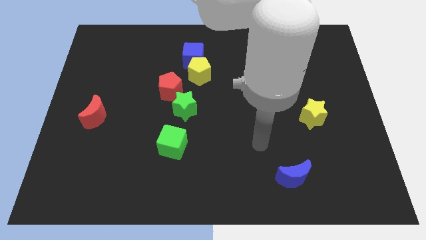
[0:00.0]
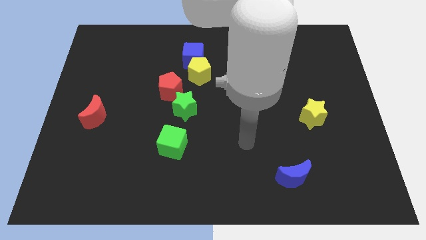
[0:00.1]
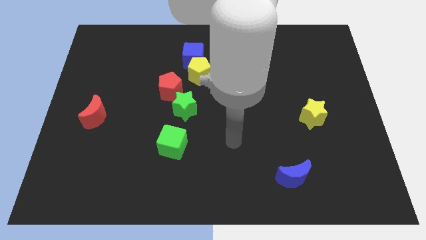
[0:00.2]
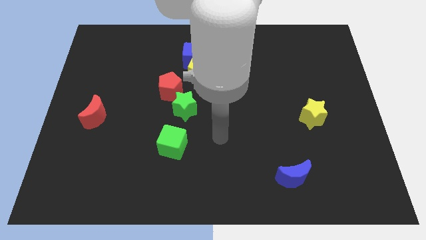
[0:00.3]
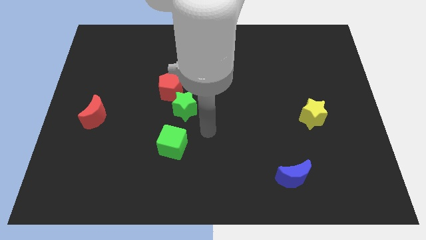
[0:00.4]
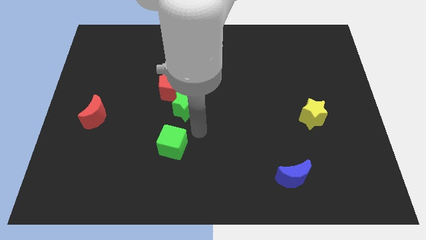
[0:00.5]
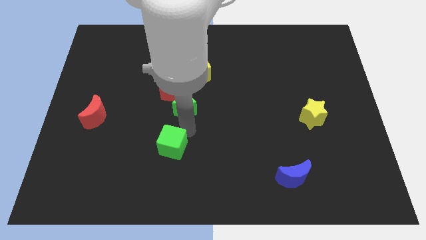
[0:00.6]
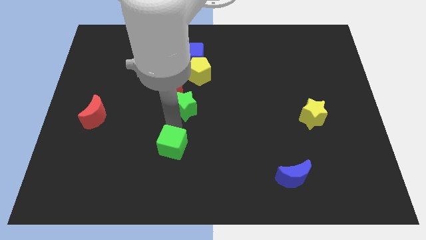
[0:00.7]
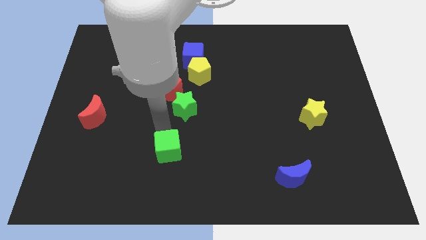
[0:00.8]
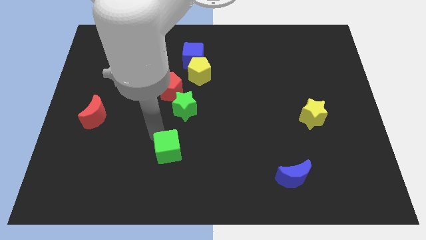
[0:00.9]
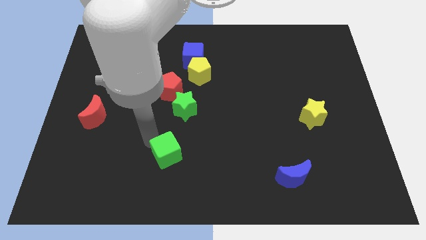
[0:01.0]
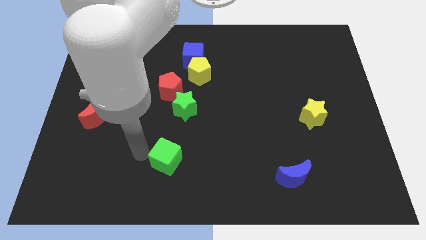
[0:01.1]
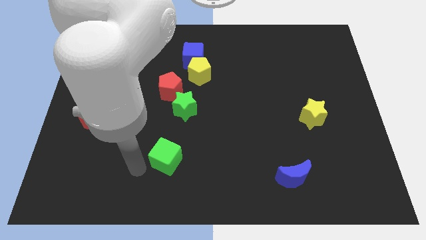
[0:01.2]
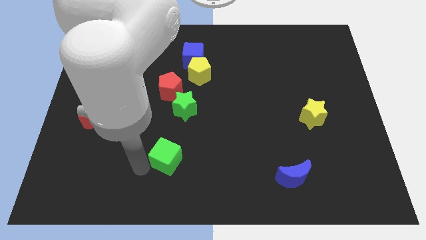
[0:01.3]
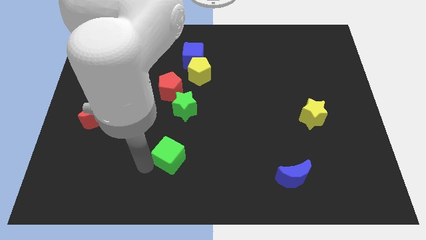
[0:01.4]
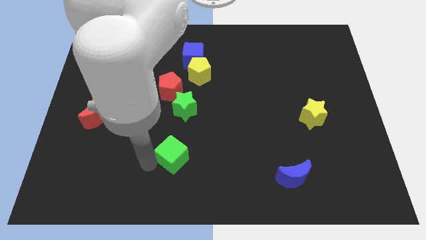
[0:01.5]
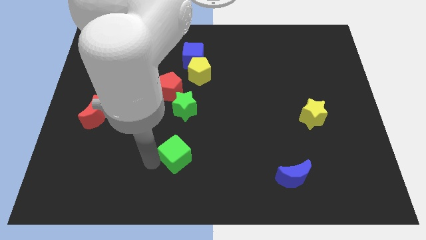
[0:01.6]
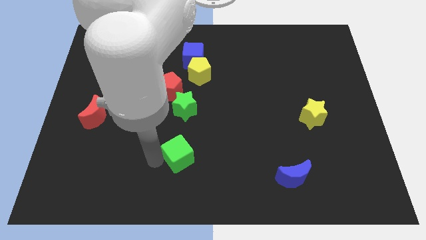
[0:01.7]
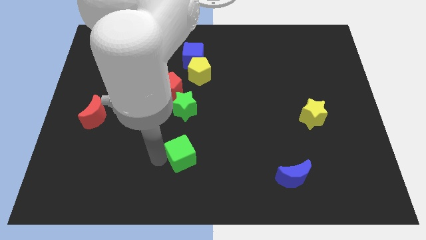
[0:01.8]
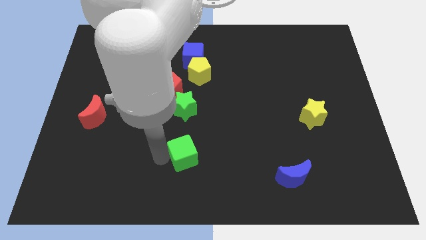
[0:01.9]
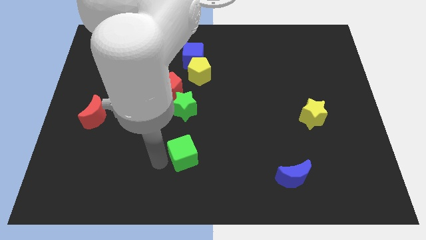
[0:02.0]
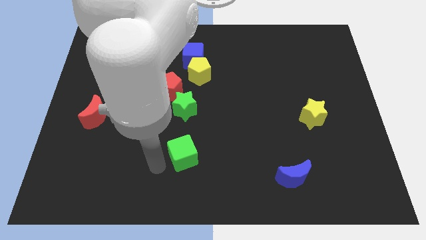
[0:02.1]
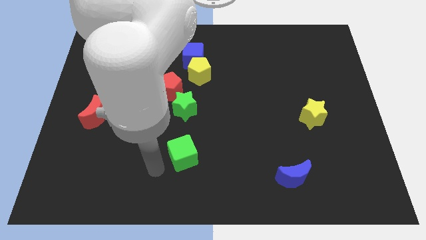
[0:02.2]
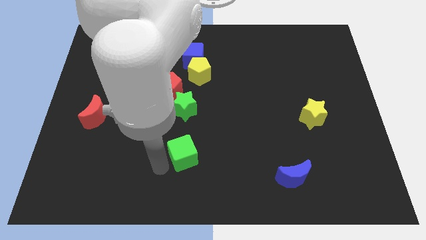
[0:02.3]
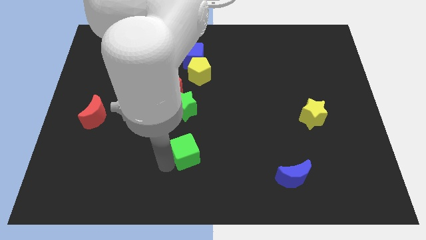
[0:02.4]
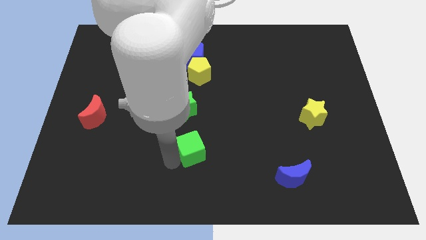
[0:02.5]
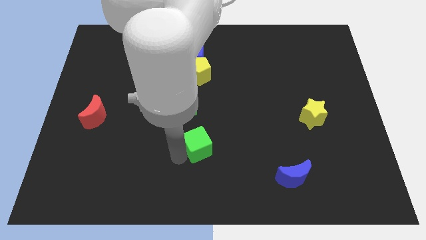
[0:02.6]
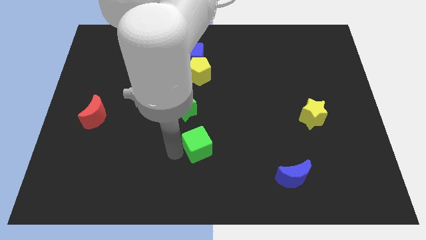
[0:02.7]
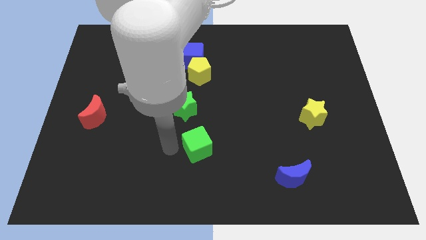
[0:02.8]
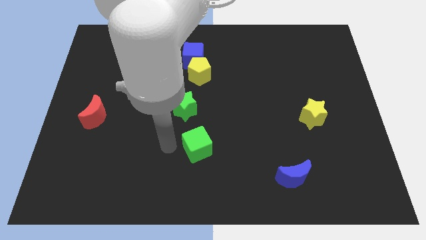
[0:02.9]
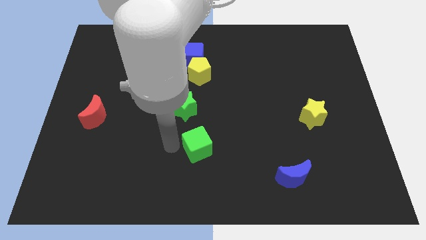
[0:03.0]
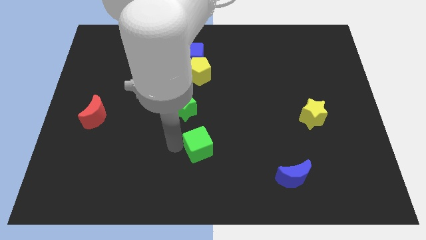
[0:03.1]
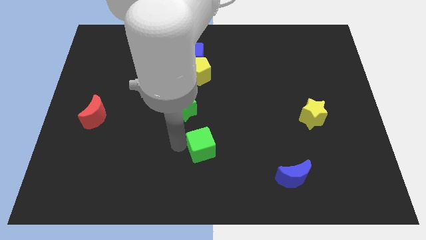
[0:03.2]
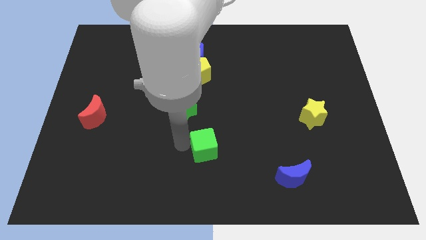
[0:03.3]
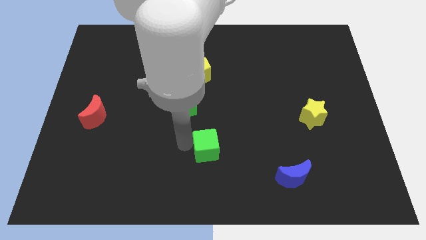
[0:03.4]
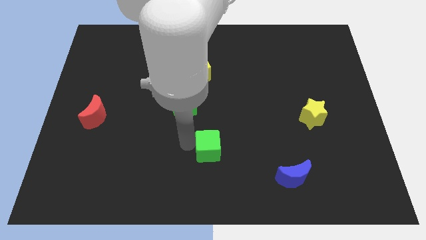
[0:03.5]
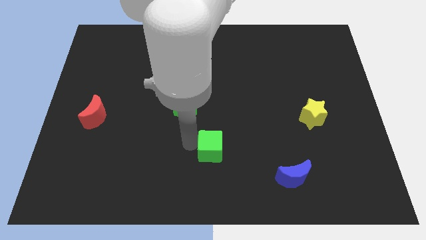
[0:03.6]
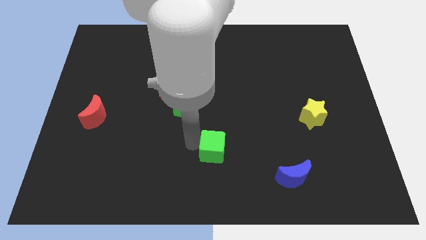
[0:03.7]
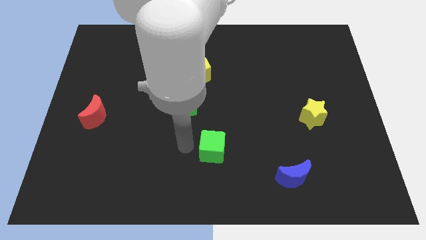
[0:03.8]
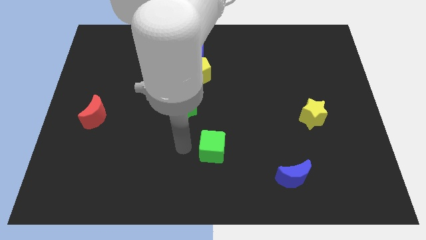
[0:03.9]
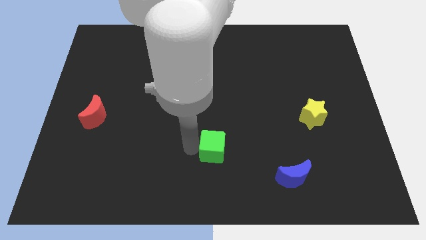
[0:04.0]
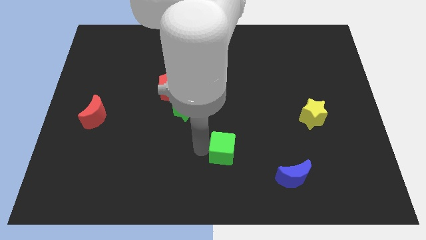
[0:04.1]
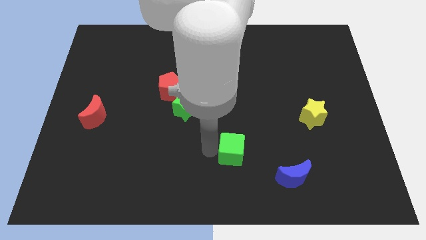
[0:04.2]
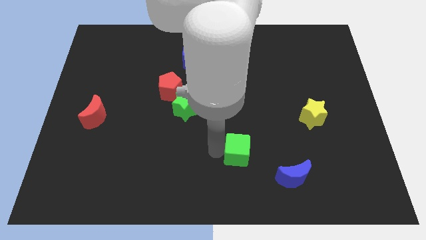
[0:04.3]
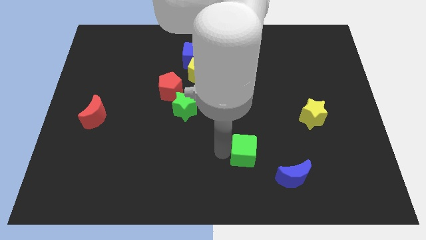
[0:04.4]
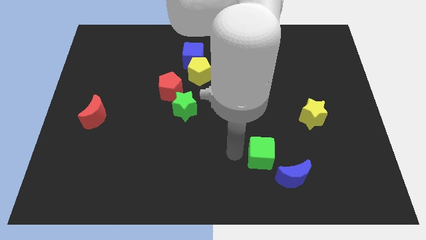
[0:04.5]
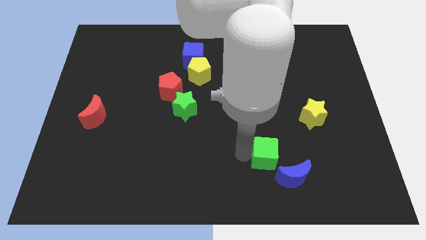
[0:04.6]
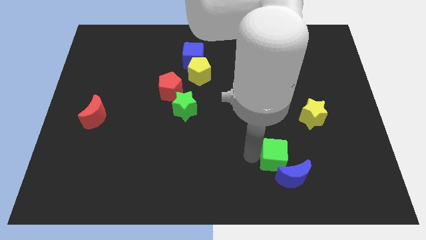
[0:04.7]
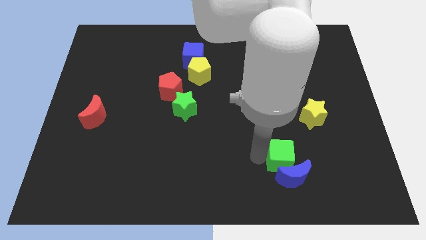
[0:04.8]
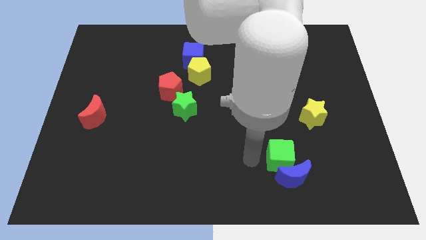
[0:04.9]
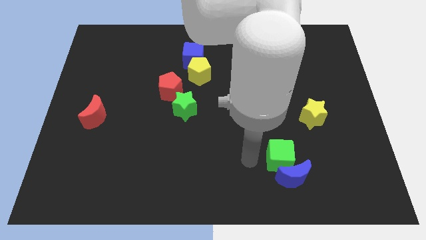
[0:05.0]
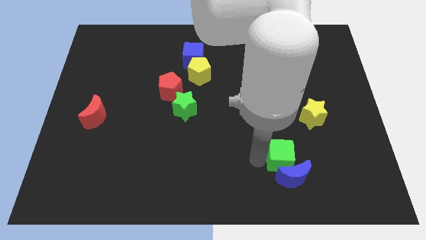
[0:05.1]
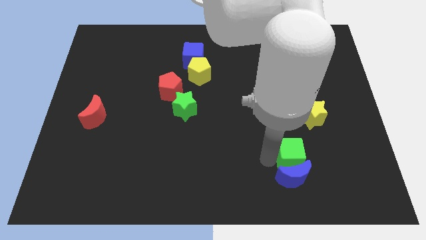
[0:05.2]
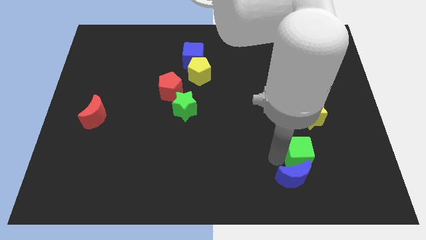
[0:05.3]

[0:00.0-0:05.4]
push the green cube to the bottom of the yellow star

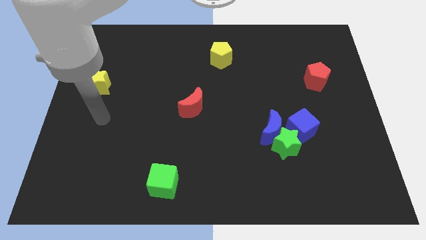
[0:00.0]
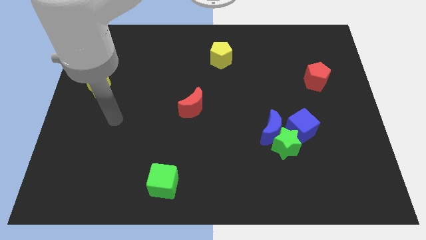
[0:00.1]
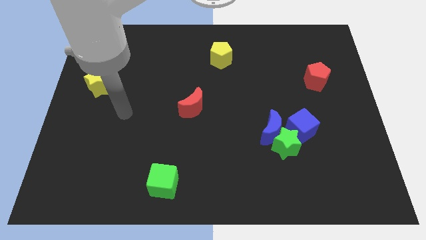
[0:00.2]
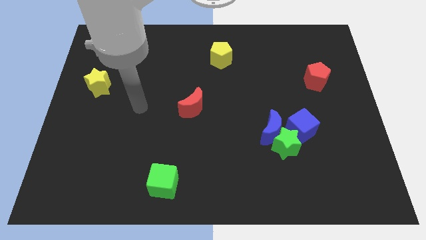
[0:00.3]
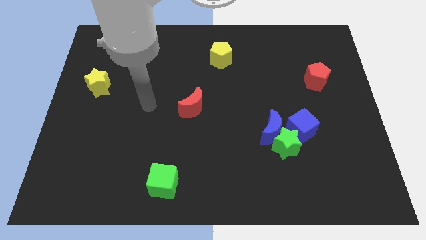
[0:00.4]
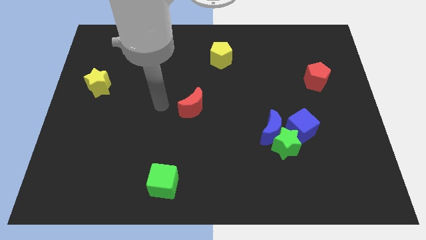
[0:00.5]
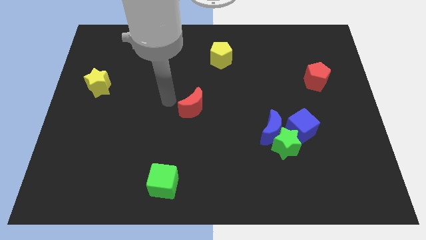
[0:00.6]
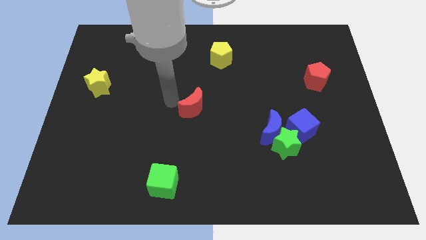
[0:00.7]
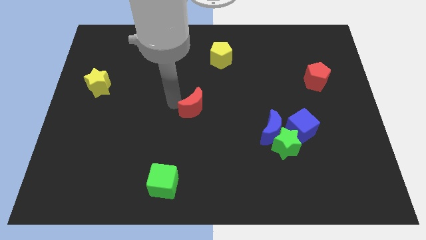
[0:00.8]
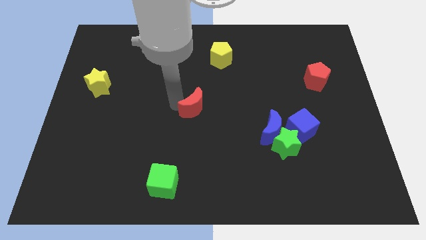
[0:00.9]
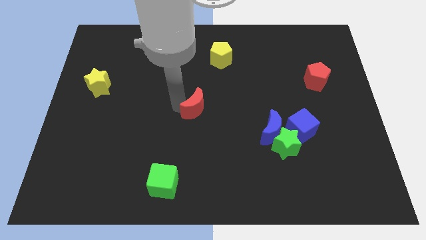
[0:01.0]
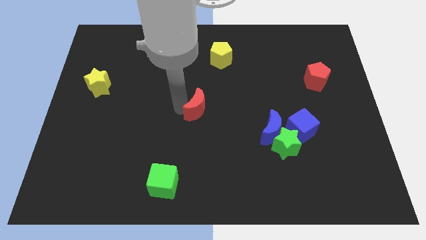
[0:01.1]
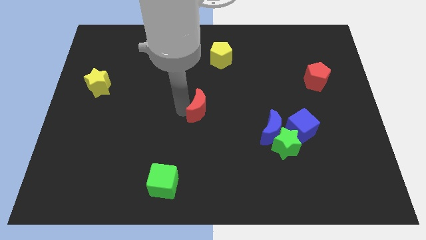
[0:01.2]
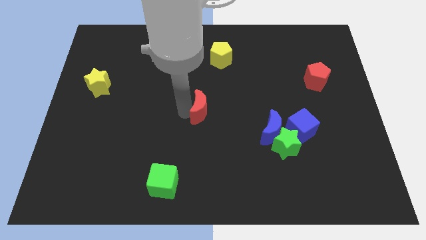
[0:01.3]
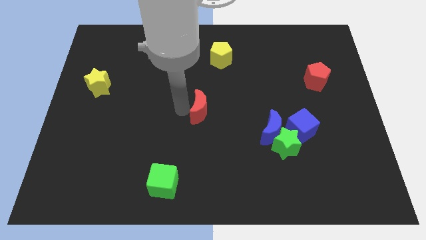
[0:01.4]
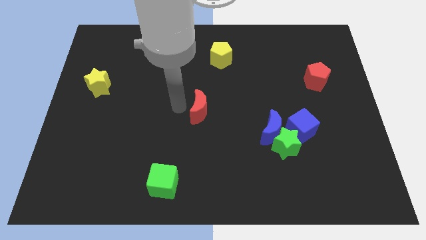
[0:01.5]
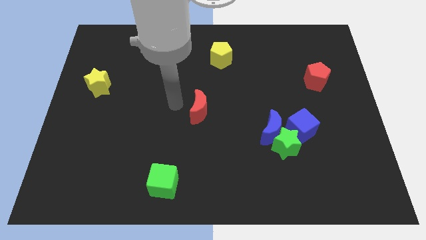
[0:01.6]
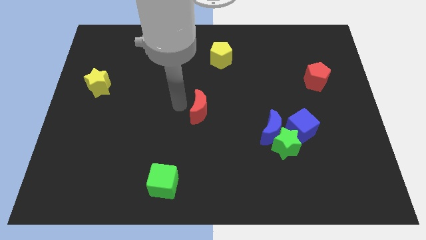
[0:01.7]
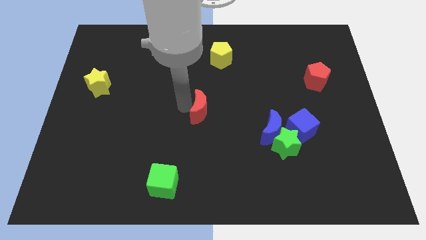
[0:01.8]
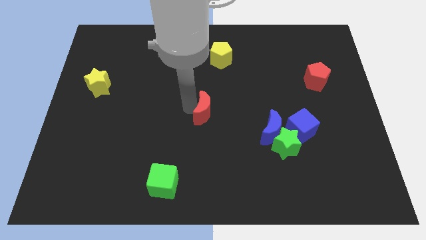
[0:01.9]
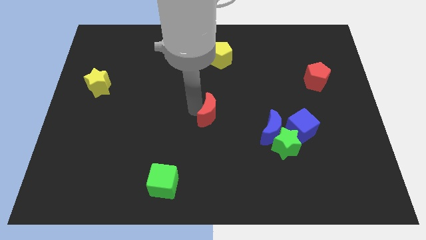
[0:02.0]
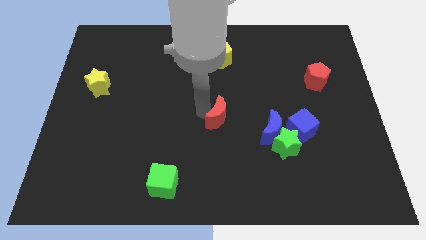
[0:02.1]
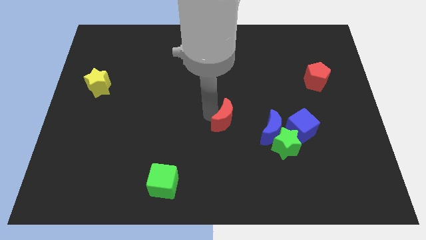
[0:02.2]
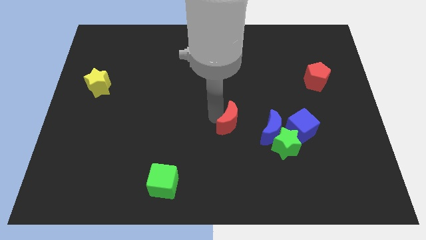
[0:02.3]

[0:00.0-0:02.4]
slide the red moon left of the blue cube
